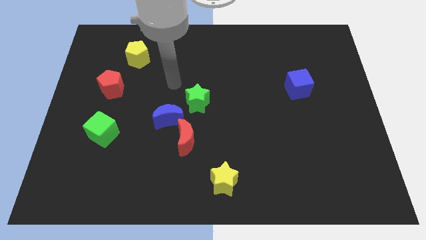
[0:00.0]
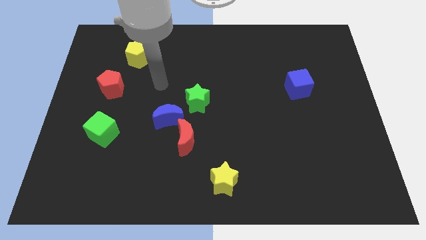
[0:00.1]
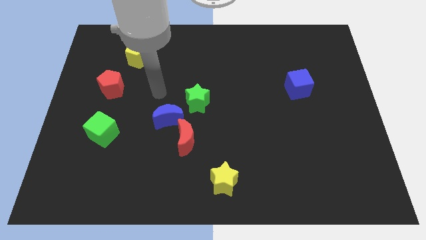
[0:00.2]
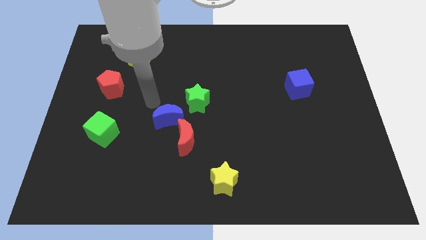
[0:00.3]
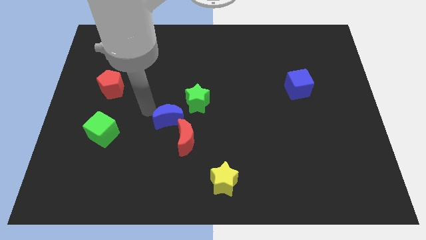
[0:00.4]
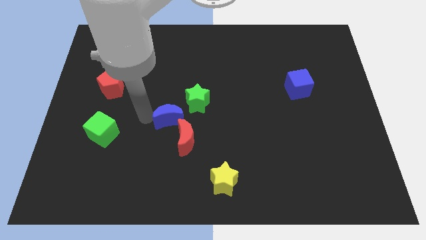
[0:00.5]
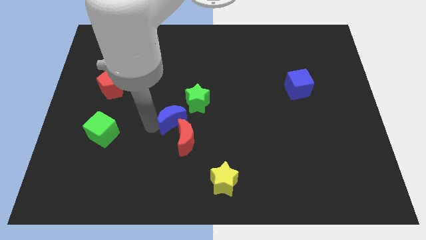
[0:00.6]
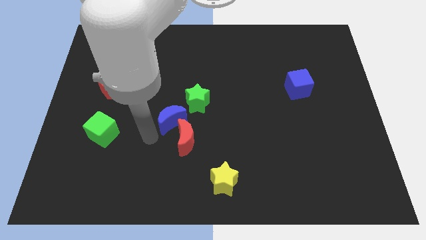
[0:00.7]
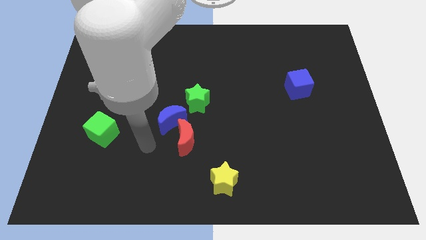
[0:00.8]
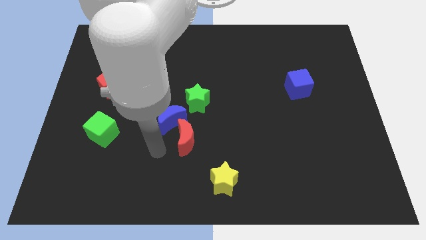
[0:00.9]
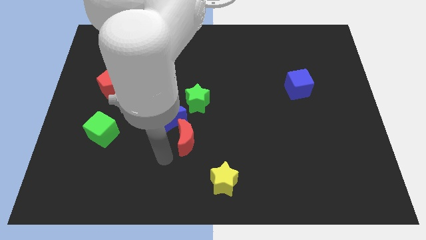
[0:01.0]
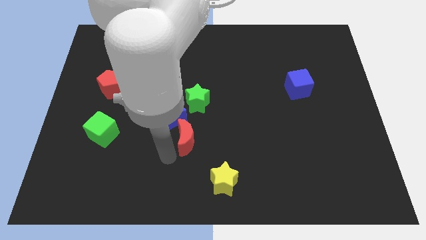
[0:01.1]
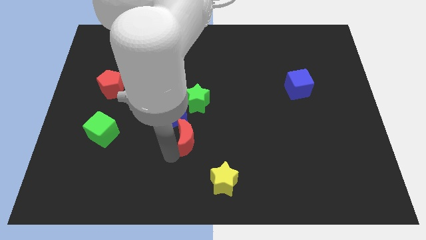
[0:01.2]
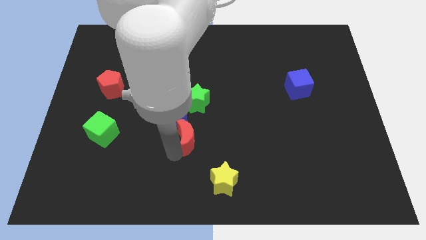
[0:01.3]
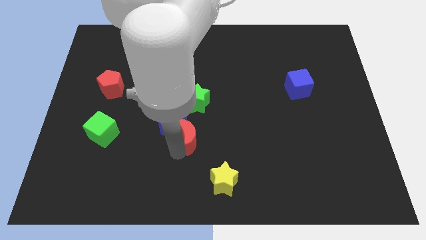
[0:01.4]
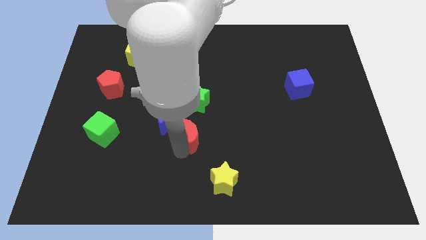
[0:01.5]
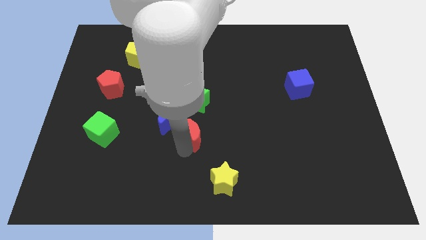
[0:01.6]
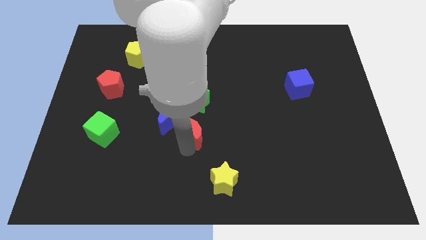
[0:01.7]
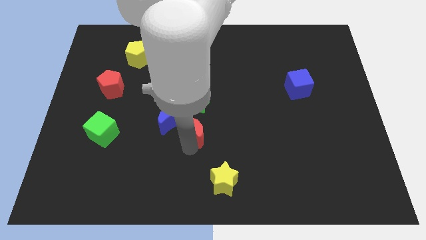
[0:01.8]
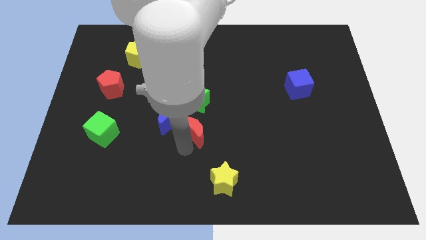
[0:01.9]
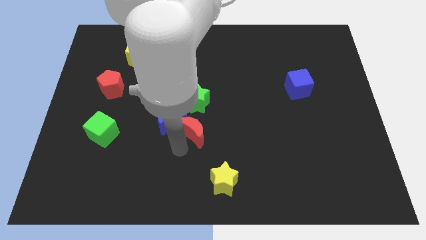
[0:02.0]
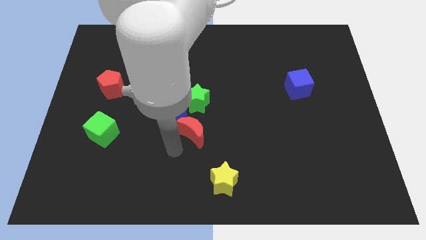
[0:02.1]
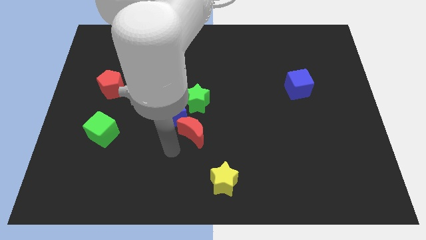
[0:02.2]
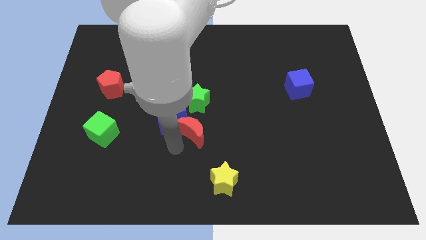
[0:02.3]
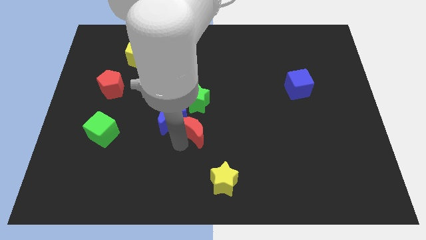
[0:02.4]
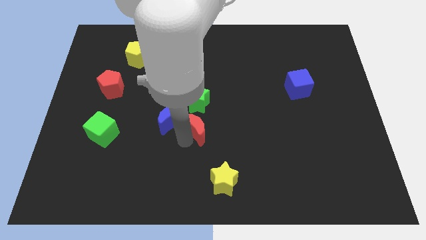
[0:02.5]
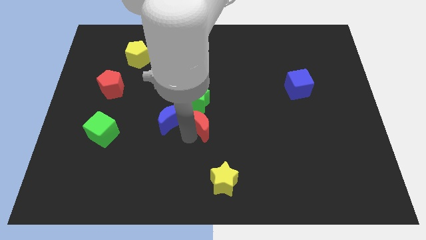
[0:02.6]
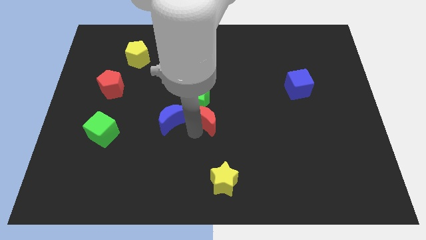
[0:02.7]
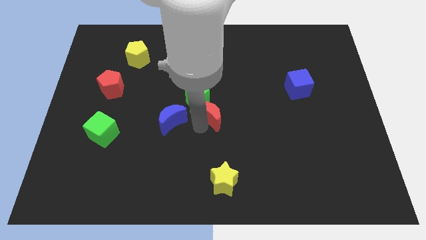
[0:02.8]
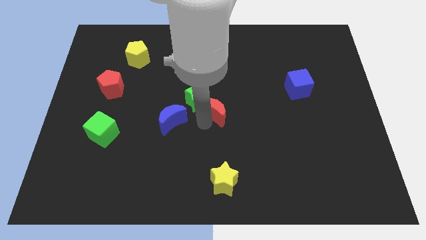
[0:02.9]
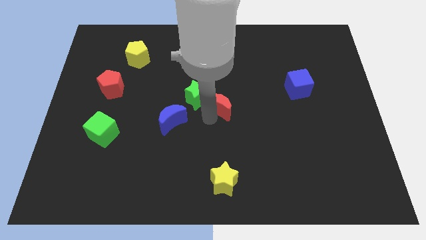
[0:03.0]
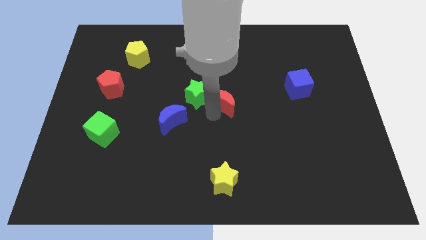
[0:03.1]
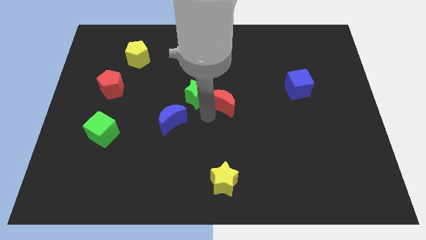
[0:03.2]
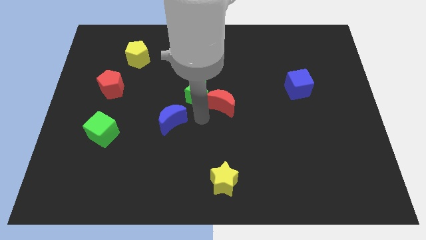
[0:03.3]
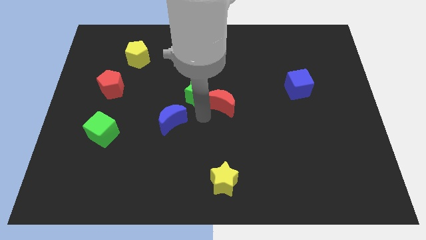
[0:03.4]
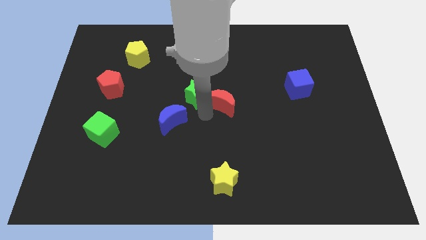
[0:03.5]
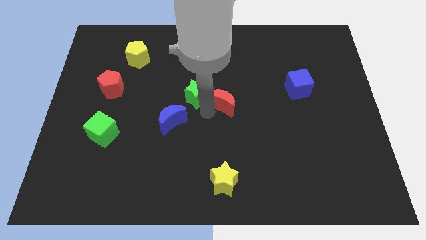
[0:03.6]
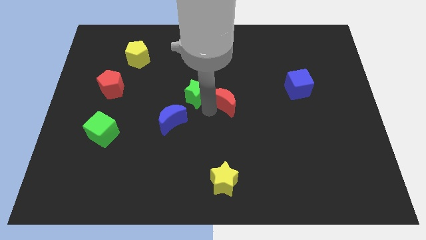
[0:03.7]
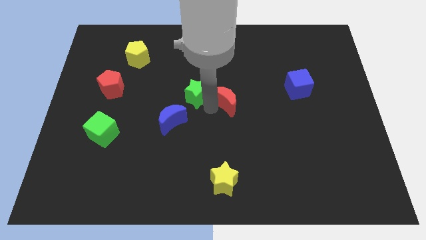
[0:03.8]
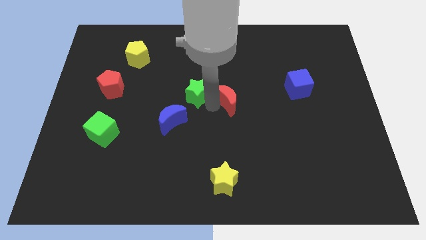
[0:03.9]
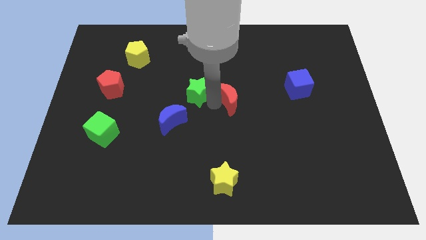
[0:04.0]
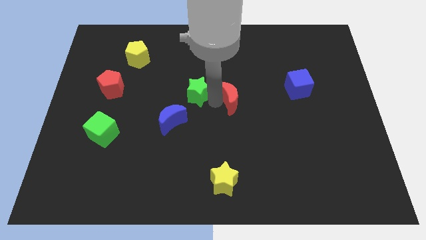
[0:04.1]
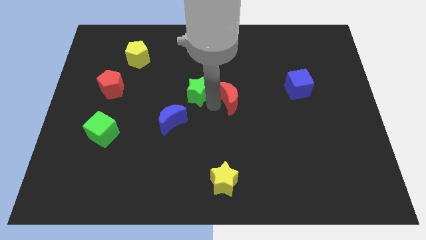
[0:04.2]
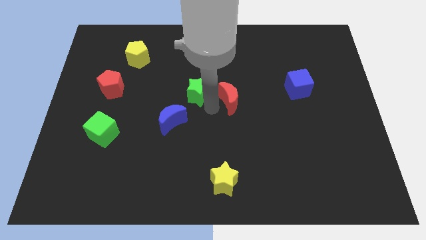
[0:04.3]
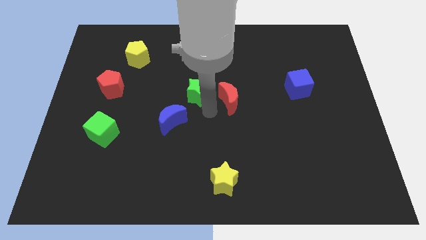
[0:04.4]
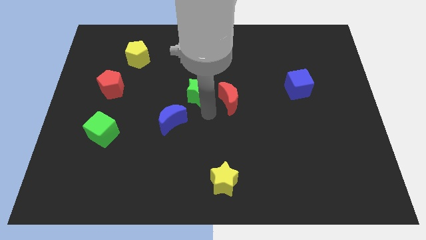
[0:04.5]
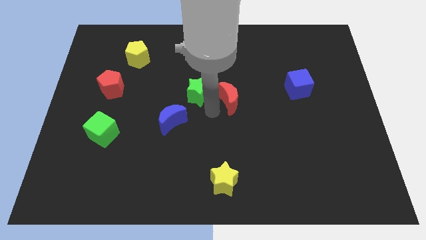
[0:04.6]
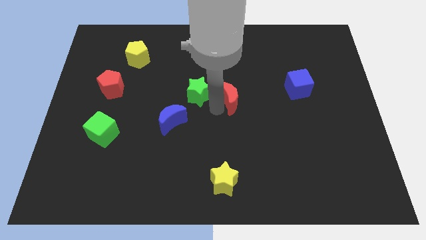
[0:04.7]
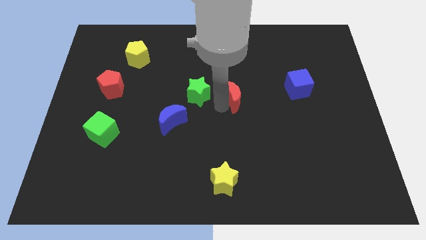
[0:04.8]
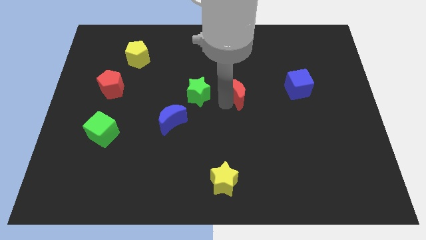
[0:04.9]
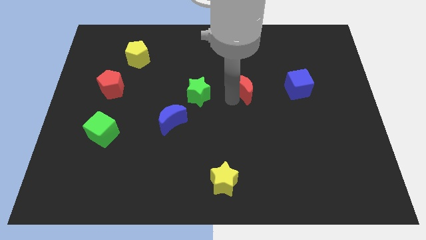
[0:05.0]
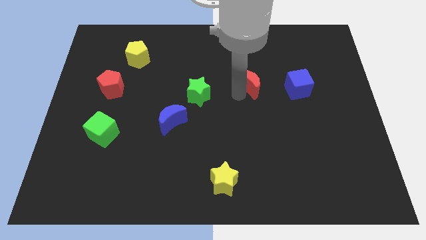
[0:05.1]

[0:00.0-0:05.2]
push the red moon up and to the right diagonally

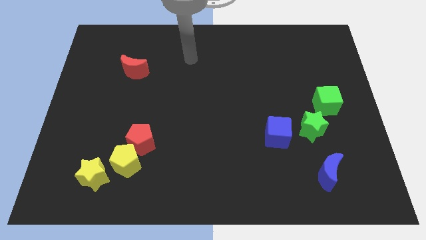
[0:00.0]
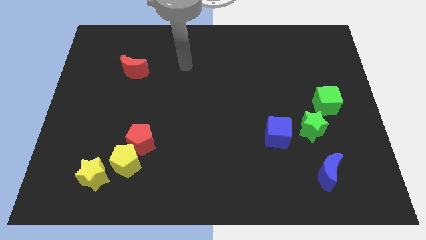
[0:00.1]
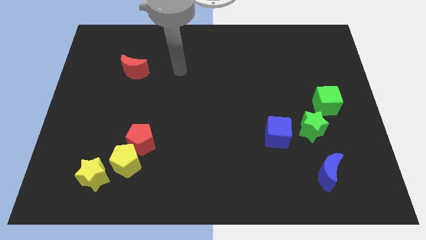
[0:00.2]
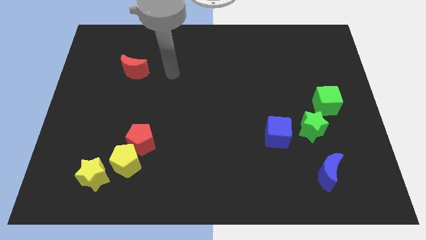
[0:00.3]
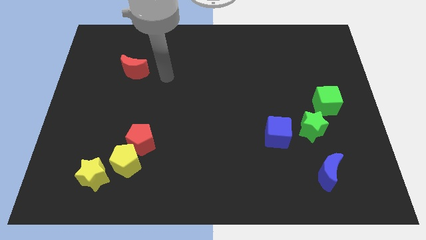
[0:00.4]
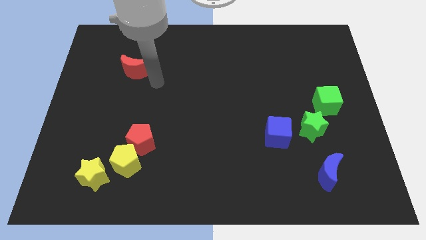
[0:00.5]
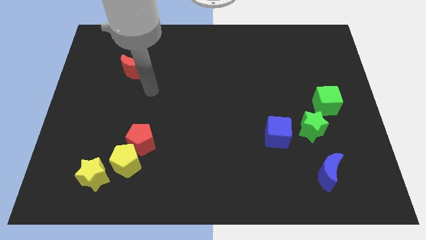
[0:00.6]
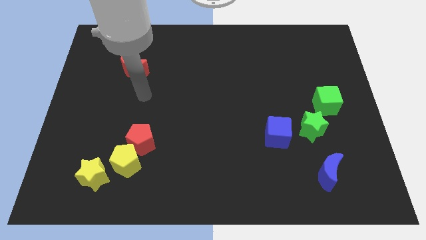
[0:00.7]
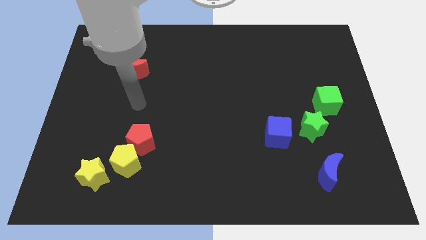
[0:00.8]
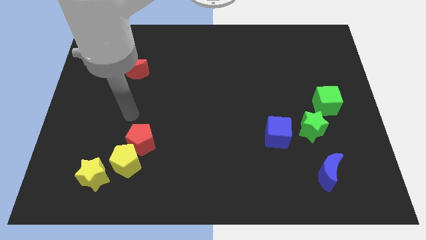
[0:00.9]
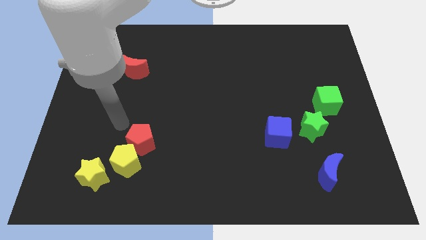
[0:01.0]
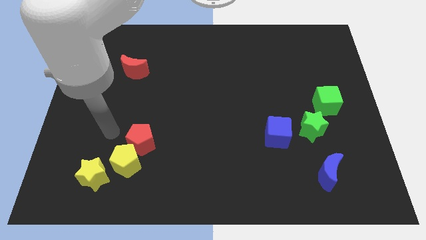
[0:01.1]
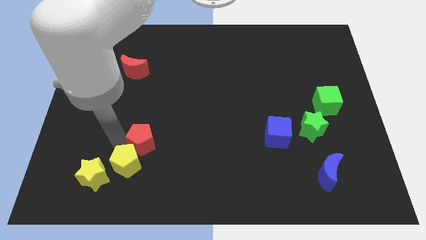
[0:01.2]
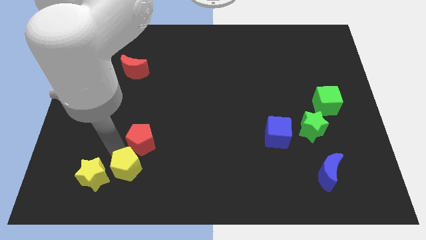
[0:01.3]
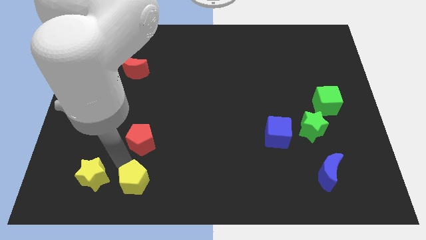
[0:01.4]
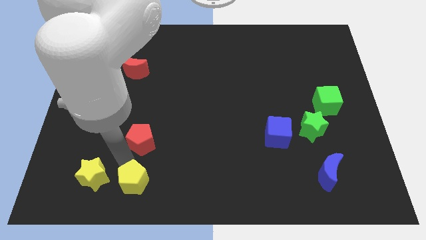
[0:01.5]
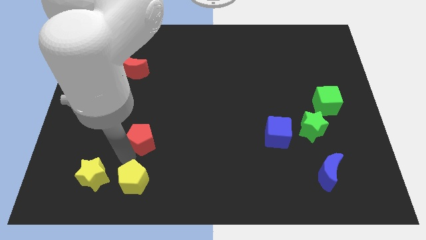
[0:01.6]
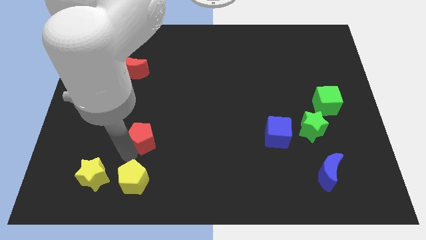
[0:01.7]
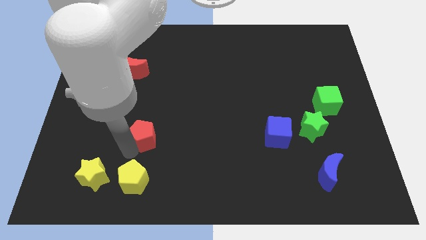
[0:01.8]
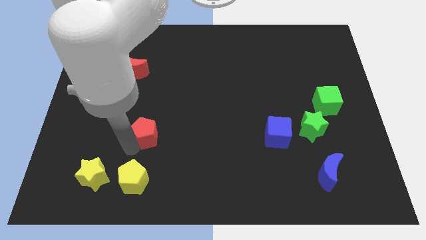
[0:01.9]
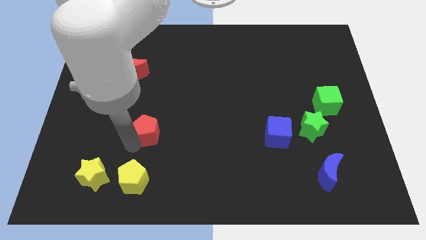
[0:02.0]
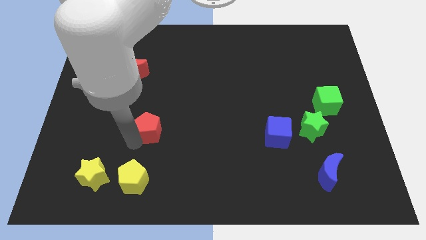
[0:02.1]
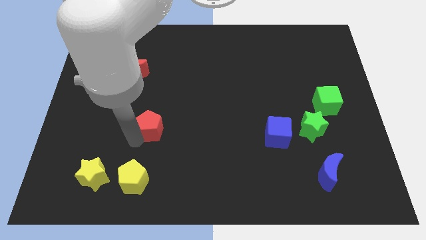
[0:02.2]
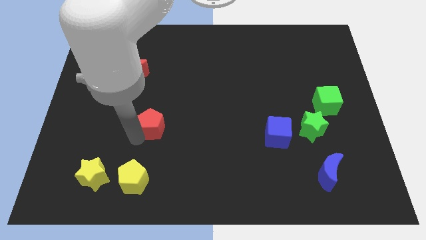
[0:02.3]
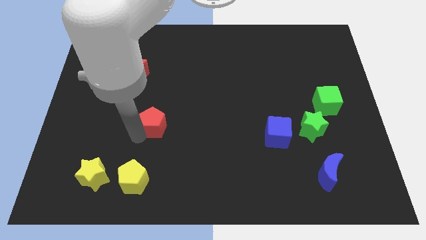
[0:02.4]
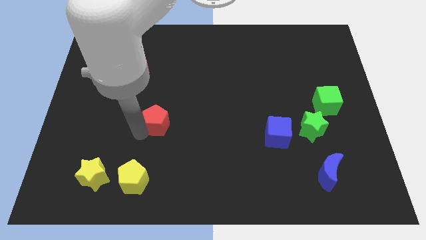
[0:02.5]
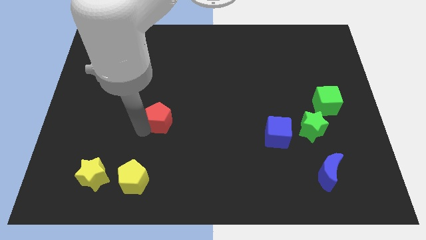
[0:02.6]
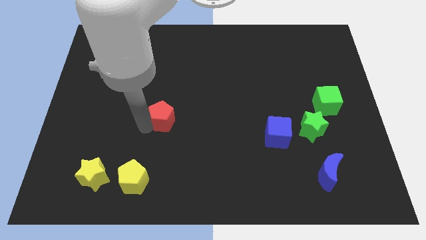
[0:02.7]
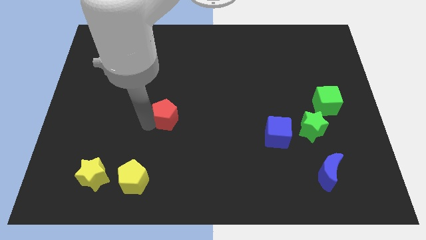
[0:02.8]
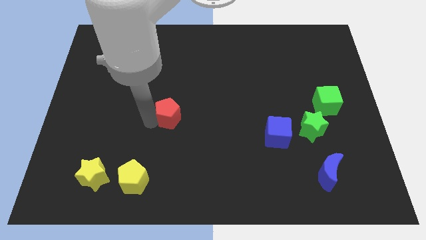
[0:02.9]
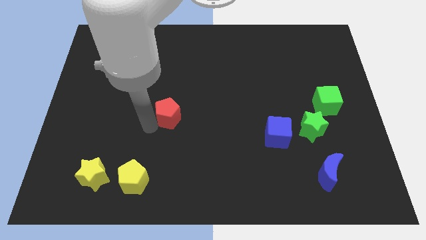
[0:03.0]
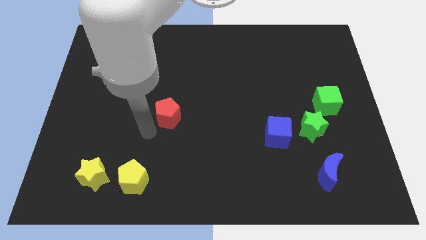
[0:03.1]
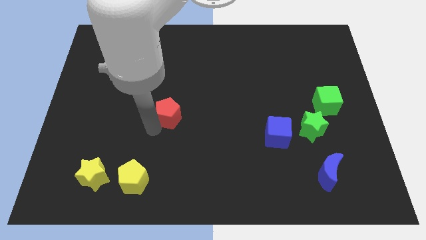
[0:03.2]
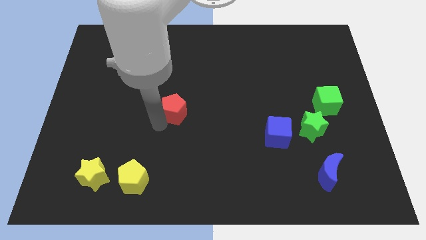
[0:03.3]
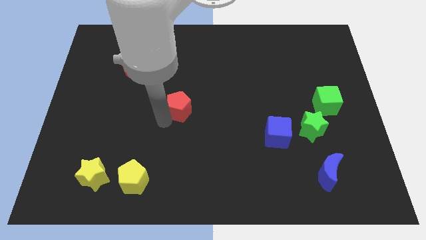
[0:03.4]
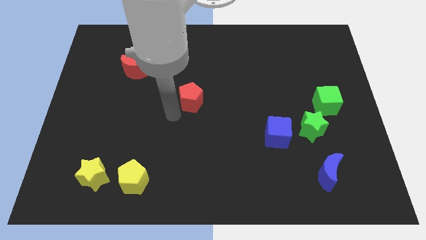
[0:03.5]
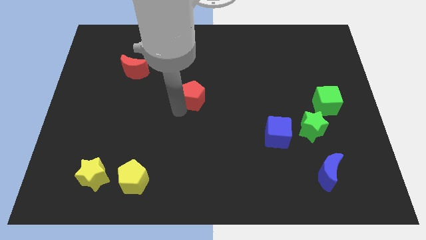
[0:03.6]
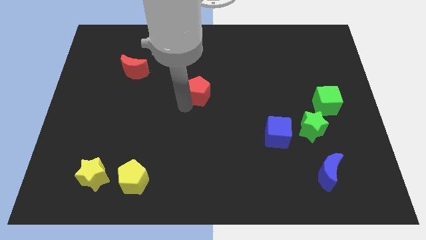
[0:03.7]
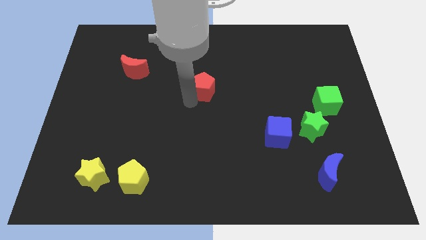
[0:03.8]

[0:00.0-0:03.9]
move the red pentagon upwards and to the right
